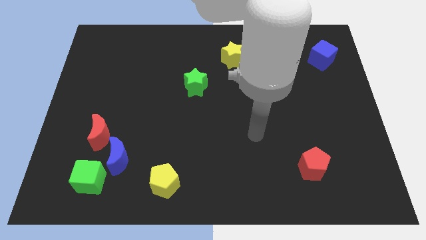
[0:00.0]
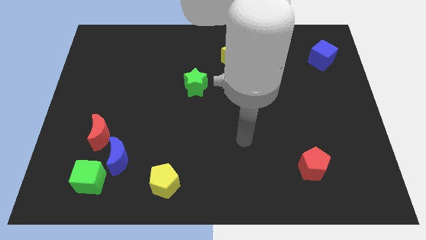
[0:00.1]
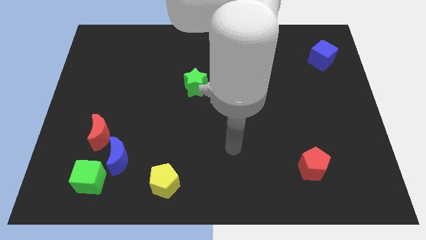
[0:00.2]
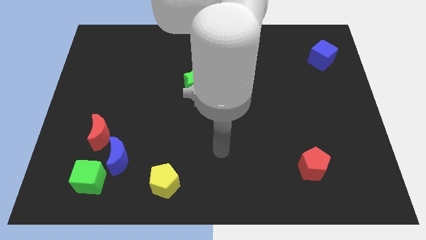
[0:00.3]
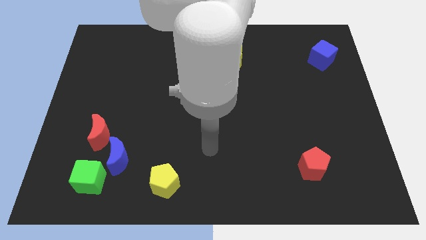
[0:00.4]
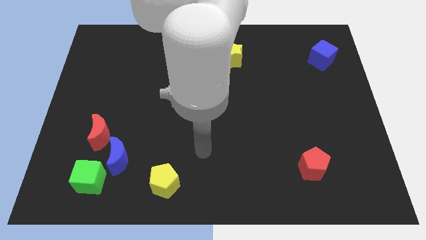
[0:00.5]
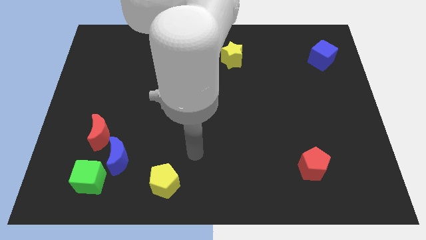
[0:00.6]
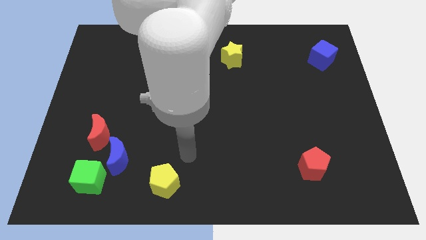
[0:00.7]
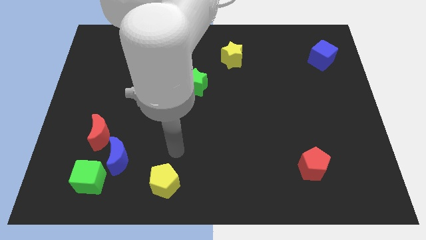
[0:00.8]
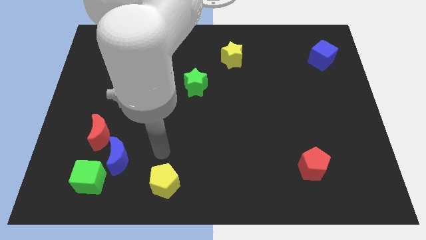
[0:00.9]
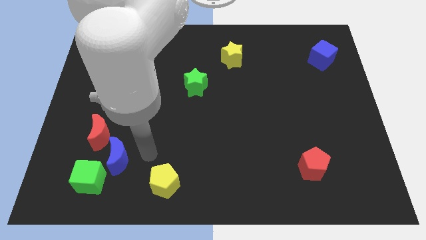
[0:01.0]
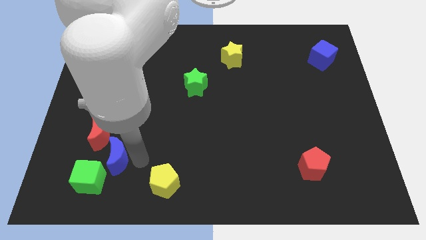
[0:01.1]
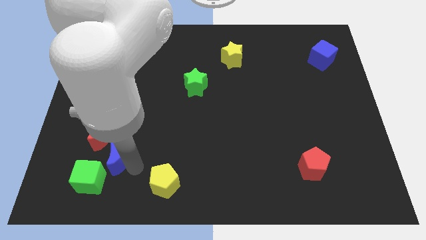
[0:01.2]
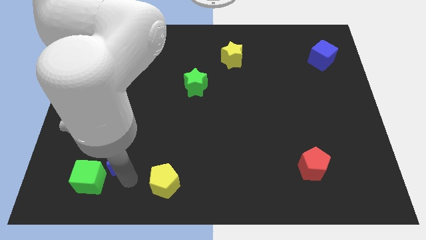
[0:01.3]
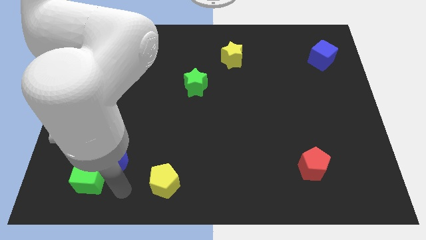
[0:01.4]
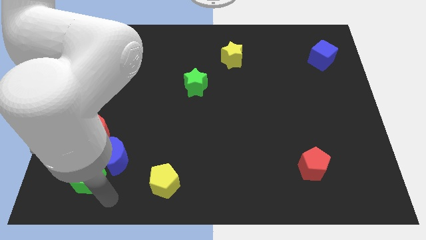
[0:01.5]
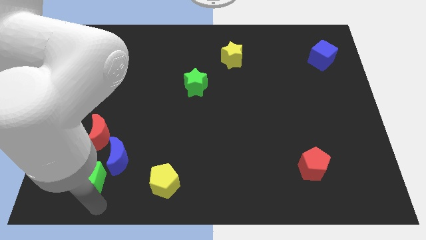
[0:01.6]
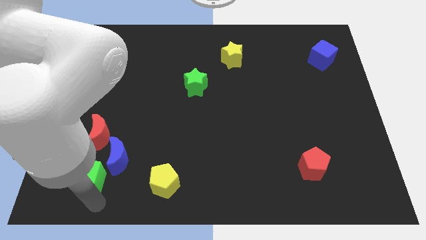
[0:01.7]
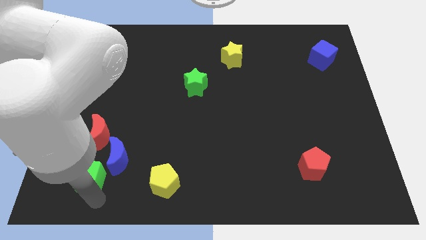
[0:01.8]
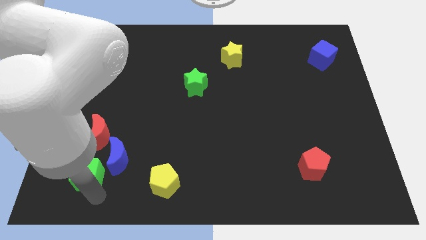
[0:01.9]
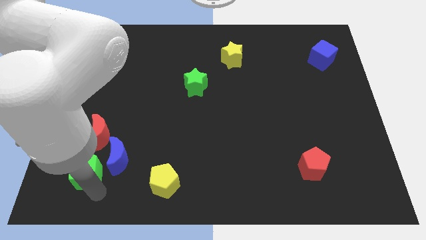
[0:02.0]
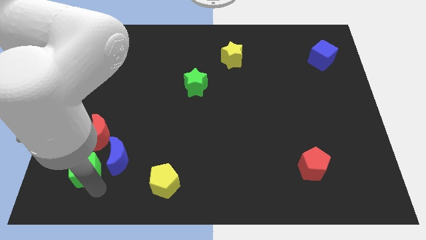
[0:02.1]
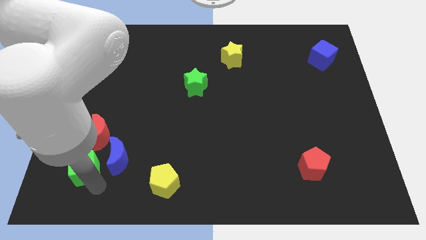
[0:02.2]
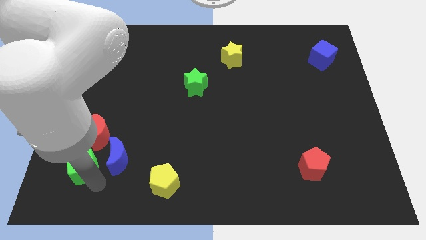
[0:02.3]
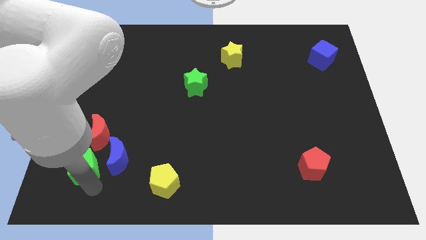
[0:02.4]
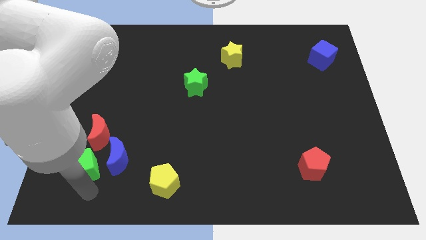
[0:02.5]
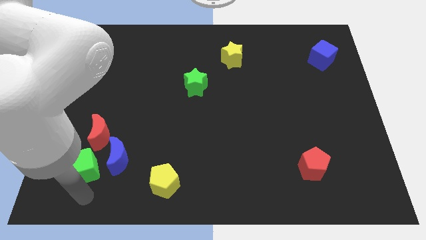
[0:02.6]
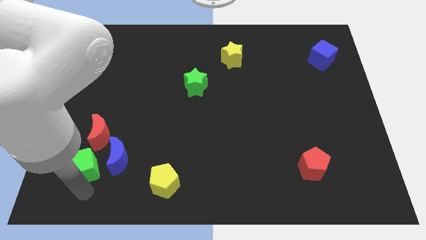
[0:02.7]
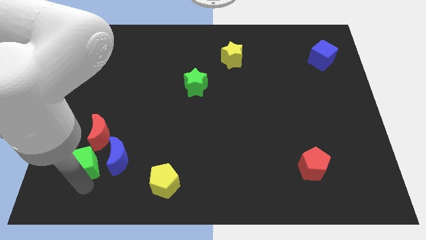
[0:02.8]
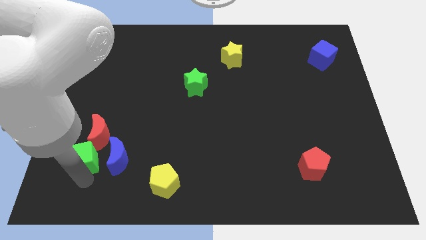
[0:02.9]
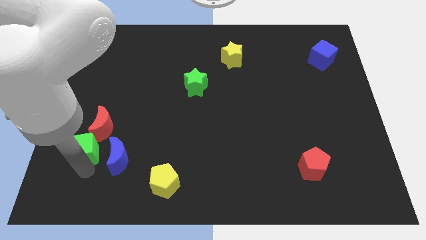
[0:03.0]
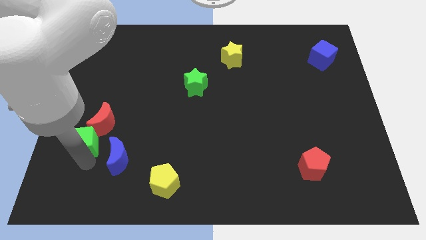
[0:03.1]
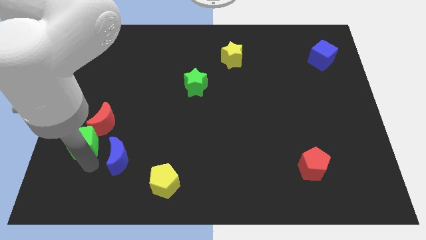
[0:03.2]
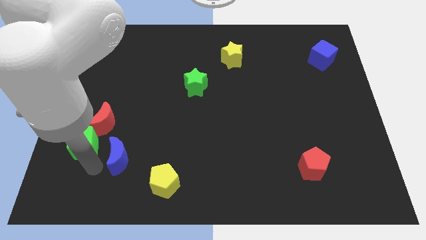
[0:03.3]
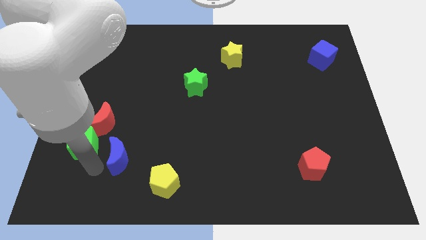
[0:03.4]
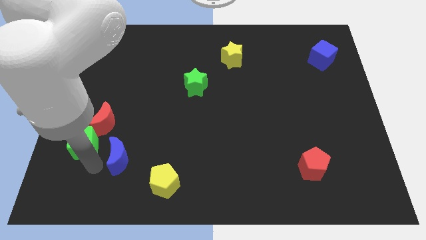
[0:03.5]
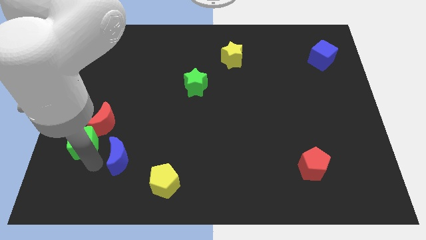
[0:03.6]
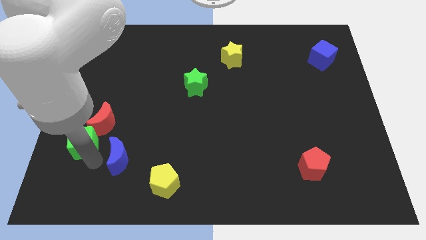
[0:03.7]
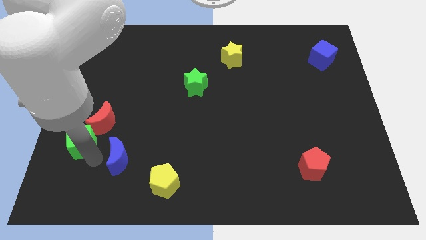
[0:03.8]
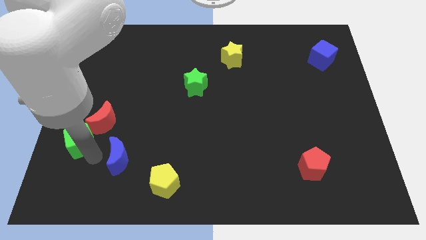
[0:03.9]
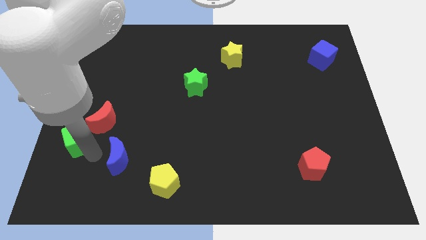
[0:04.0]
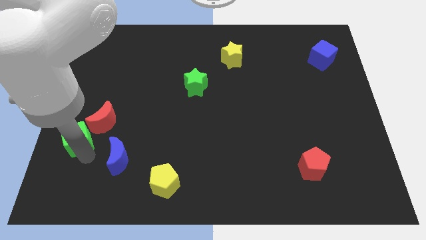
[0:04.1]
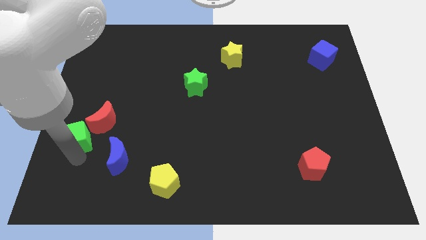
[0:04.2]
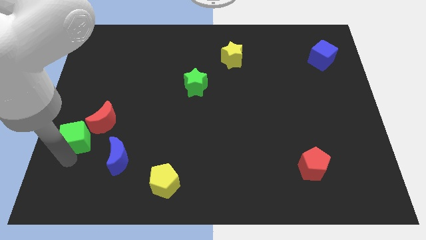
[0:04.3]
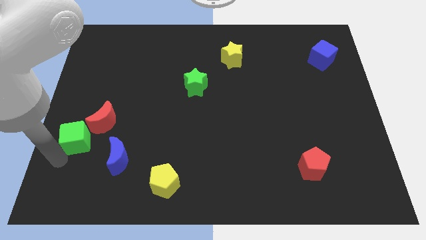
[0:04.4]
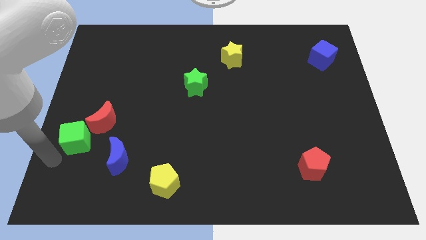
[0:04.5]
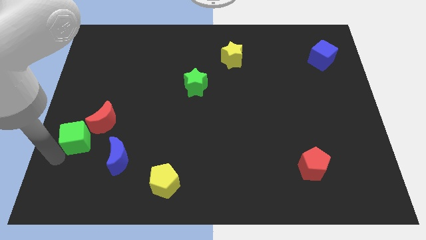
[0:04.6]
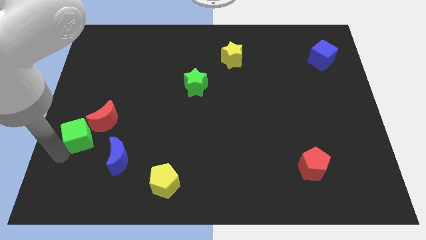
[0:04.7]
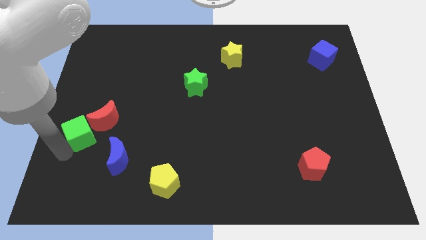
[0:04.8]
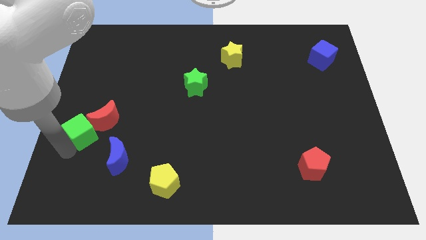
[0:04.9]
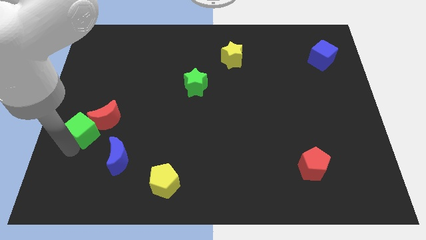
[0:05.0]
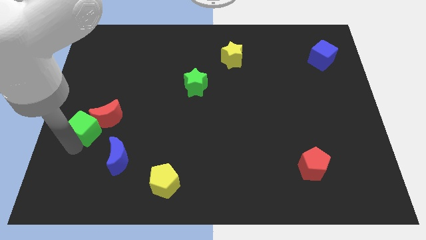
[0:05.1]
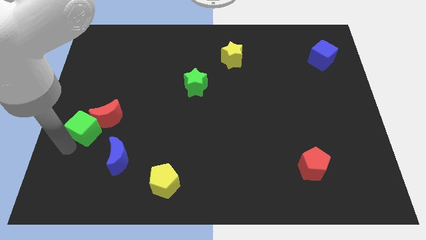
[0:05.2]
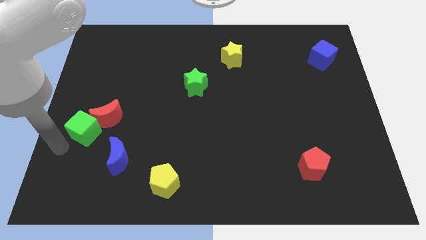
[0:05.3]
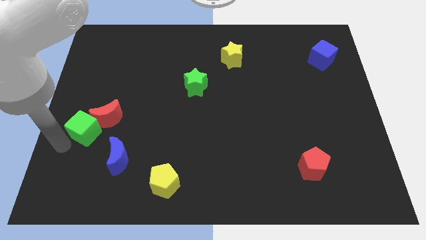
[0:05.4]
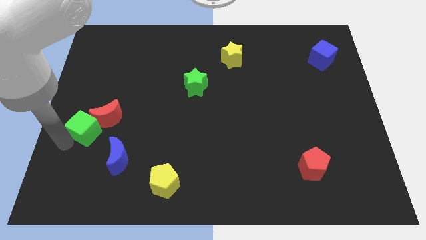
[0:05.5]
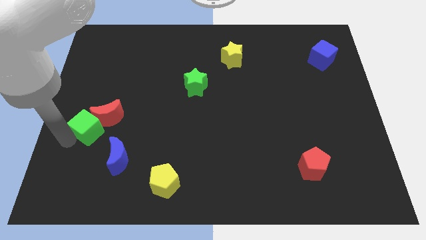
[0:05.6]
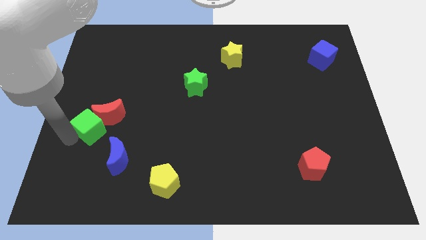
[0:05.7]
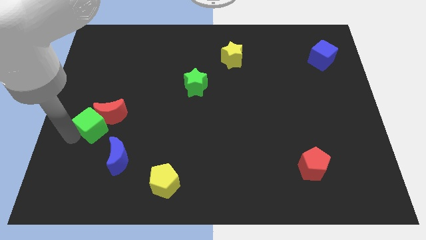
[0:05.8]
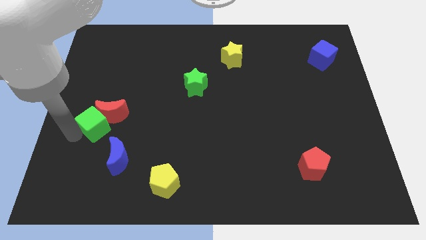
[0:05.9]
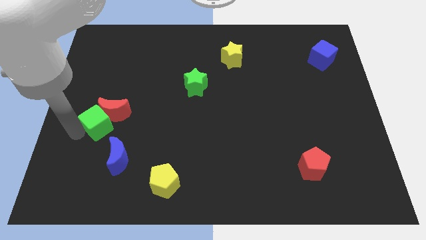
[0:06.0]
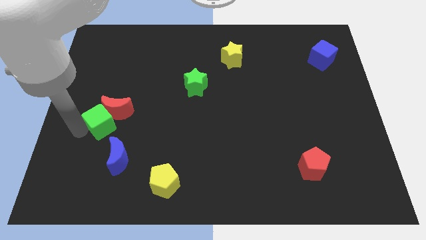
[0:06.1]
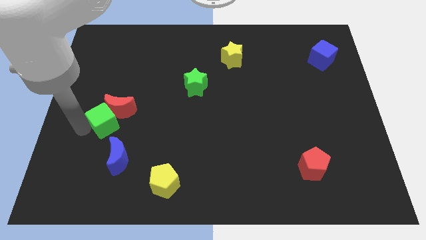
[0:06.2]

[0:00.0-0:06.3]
push the green cube to the top of the blue moon
